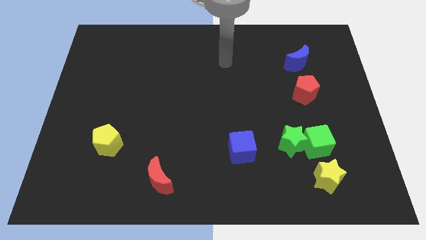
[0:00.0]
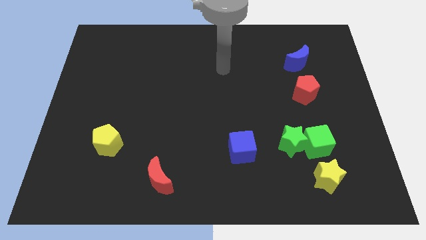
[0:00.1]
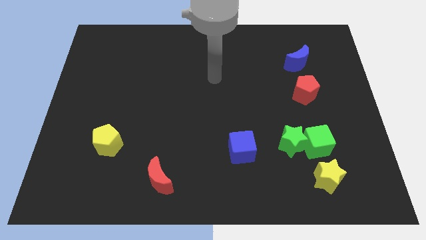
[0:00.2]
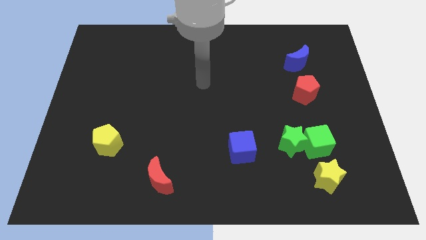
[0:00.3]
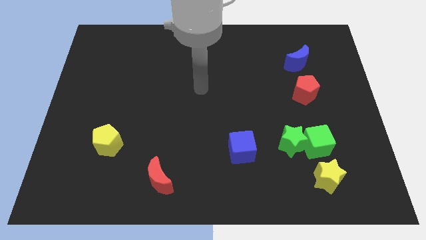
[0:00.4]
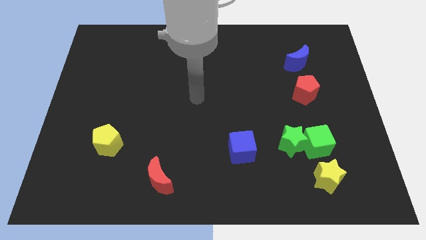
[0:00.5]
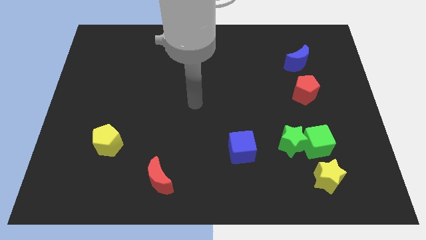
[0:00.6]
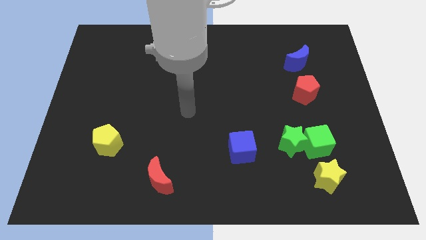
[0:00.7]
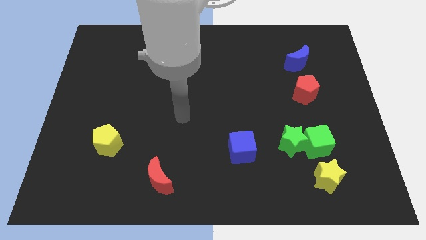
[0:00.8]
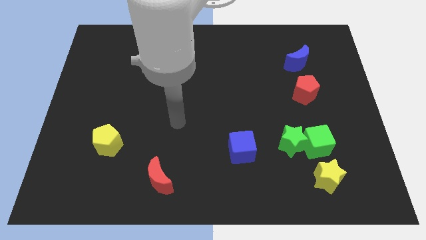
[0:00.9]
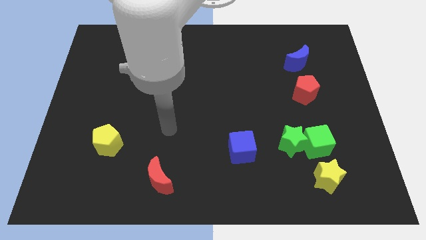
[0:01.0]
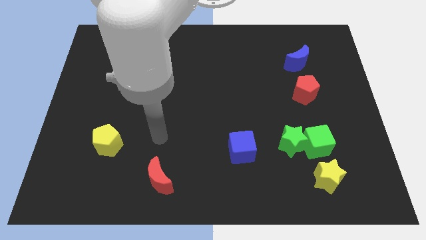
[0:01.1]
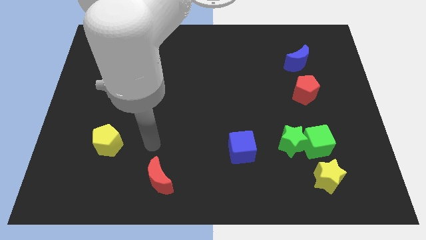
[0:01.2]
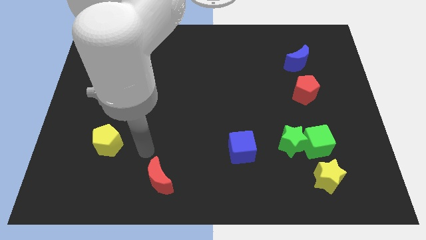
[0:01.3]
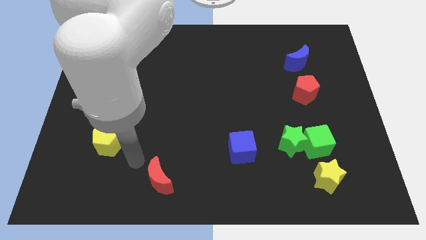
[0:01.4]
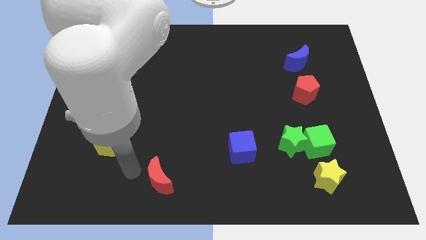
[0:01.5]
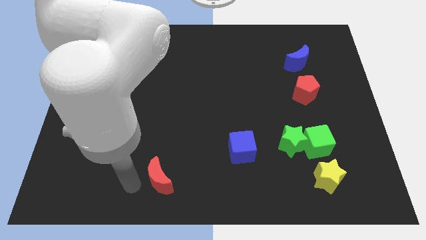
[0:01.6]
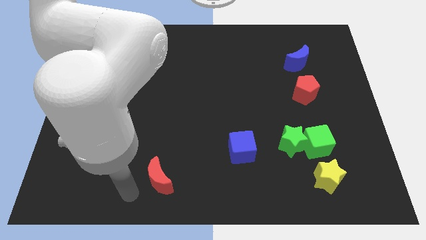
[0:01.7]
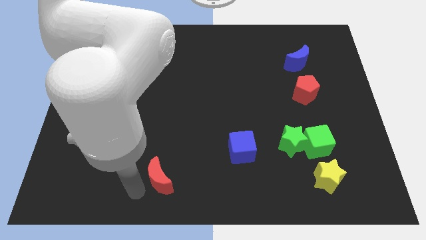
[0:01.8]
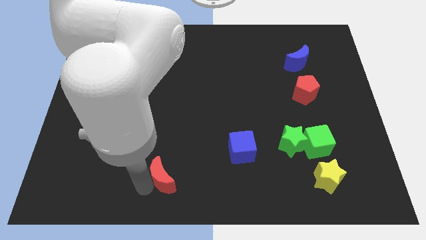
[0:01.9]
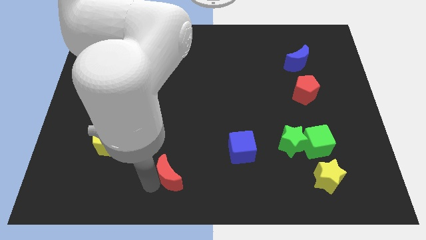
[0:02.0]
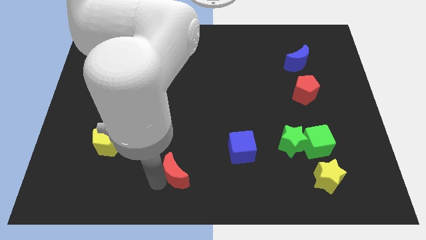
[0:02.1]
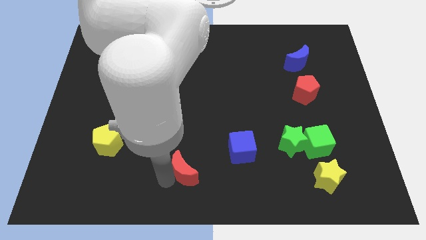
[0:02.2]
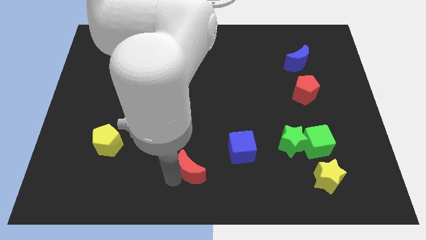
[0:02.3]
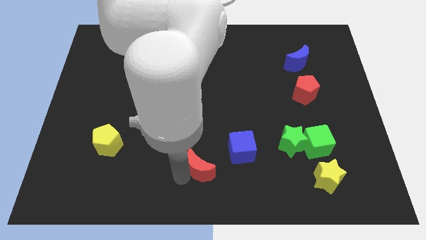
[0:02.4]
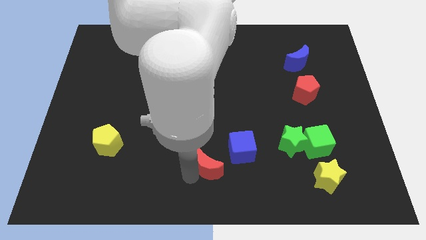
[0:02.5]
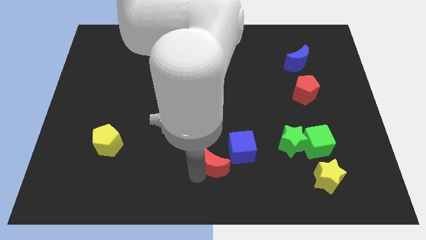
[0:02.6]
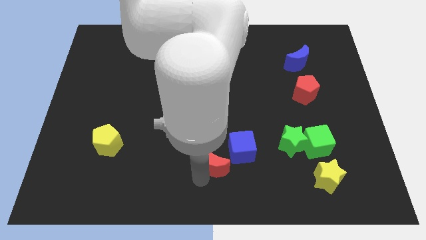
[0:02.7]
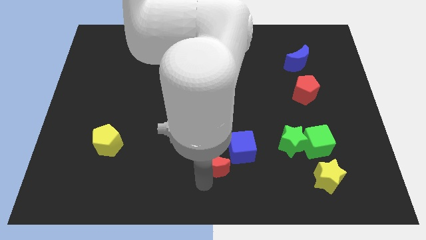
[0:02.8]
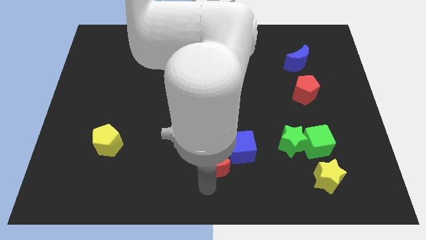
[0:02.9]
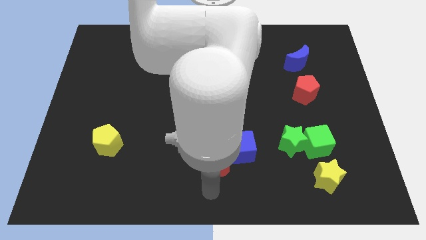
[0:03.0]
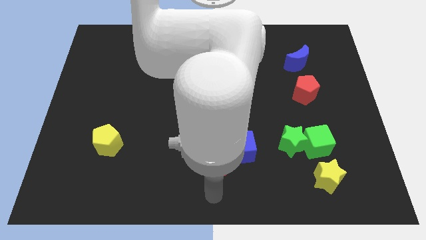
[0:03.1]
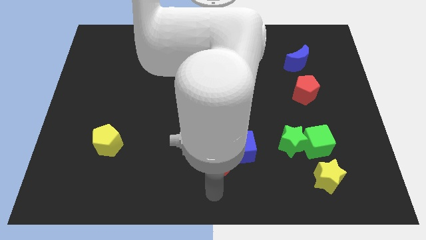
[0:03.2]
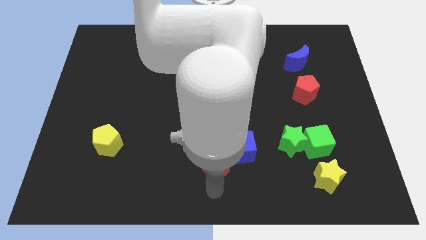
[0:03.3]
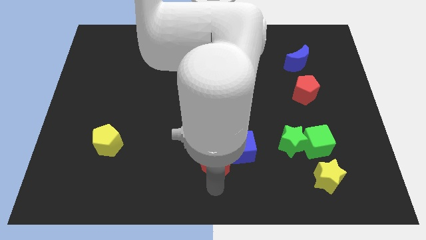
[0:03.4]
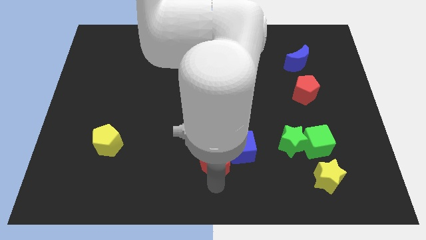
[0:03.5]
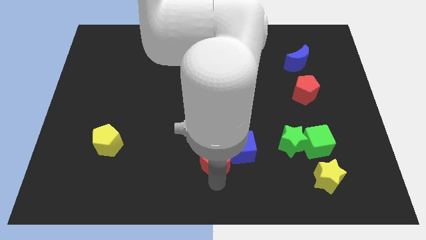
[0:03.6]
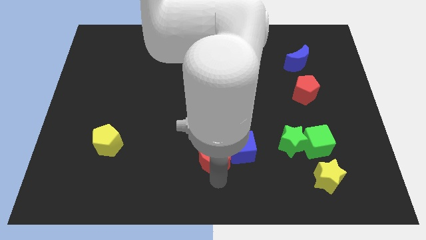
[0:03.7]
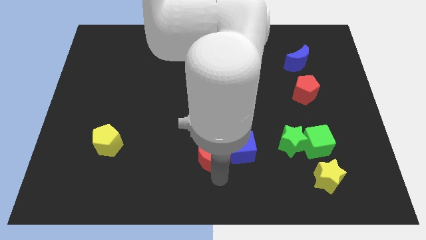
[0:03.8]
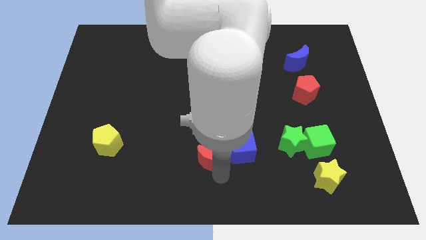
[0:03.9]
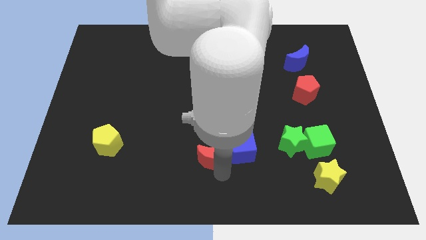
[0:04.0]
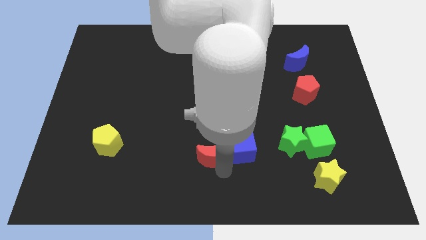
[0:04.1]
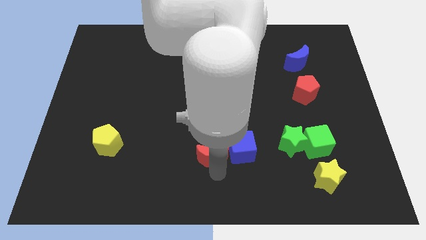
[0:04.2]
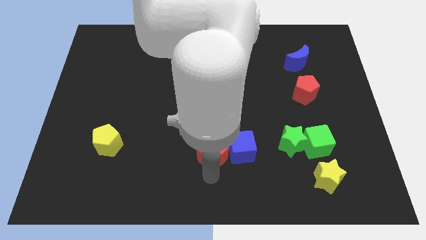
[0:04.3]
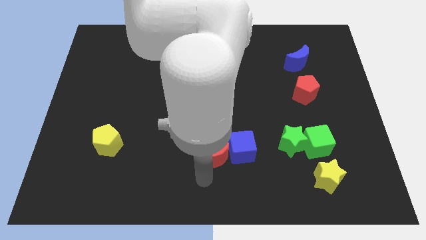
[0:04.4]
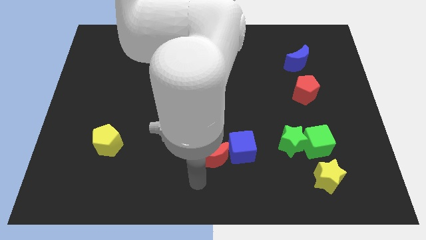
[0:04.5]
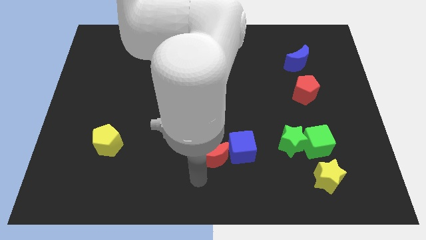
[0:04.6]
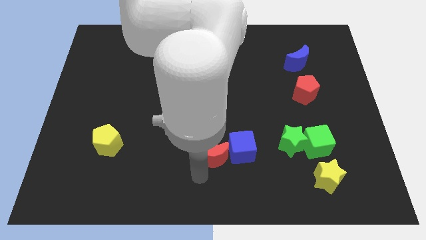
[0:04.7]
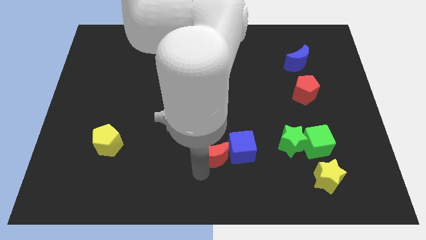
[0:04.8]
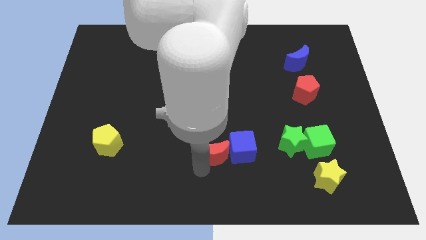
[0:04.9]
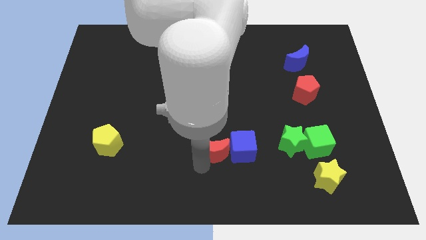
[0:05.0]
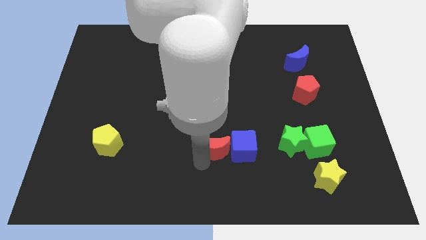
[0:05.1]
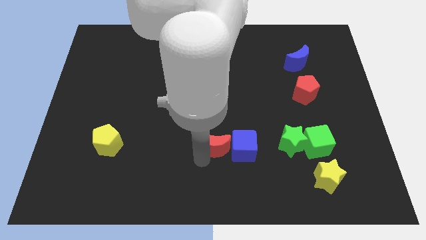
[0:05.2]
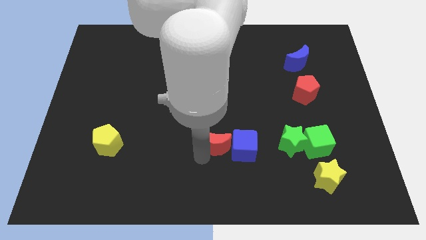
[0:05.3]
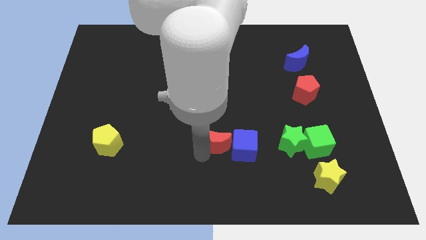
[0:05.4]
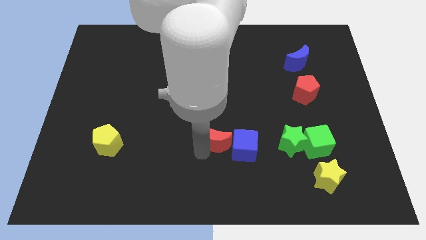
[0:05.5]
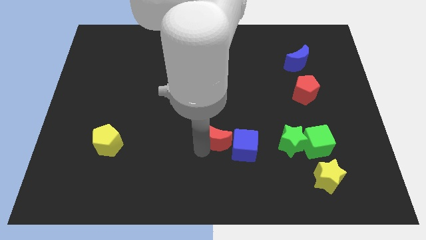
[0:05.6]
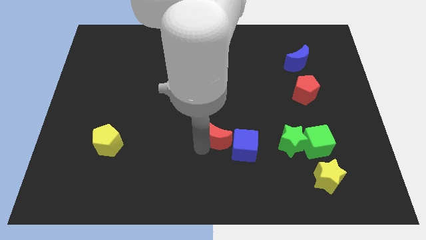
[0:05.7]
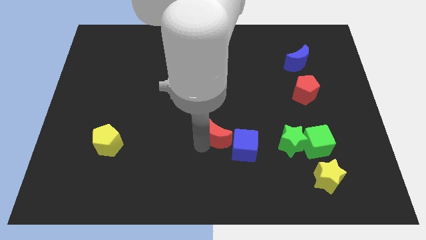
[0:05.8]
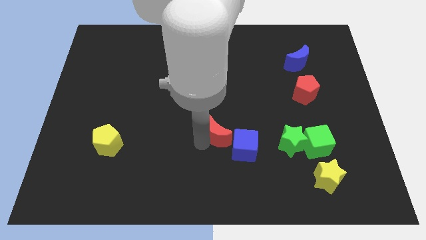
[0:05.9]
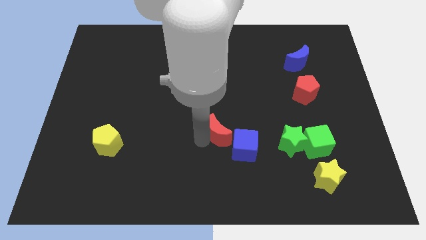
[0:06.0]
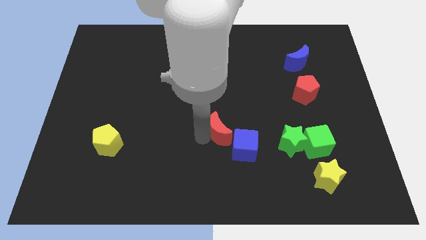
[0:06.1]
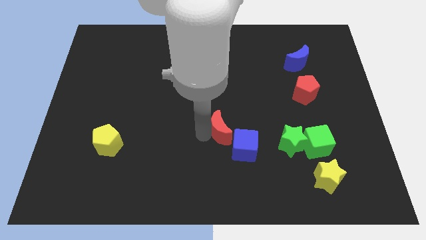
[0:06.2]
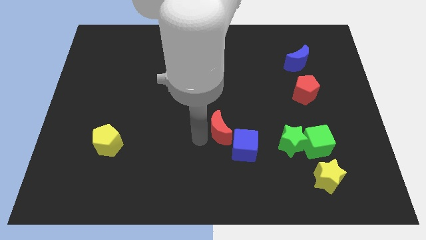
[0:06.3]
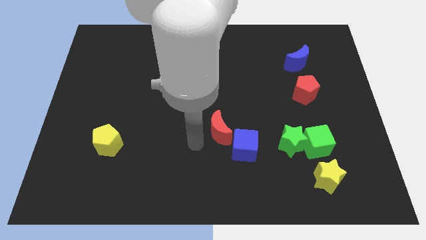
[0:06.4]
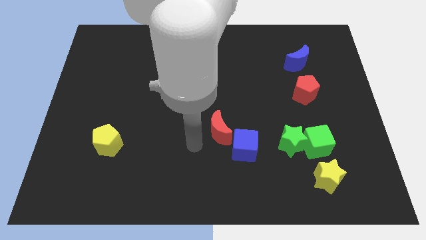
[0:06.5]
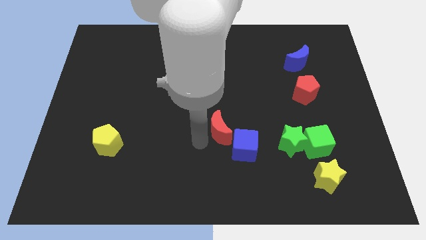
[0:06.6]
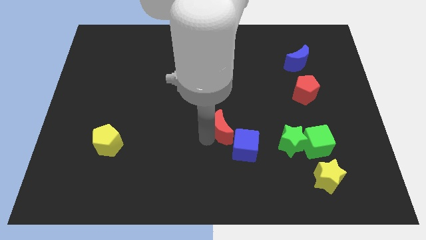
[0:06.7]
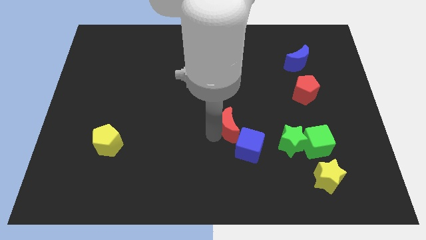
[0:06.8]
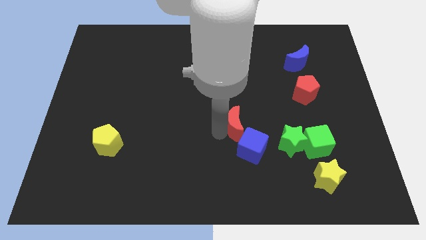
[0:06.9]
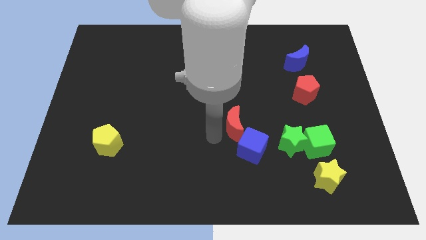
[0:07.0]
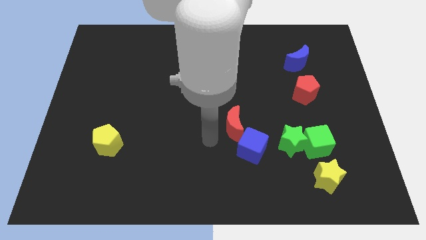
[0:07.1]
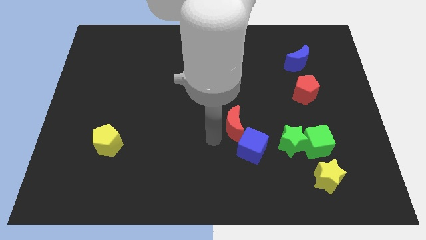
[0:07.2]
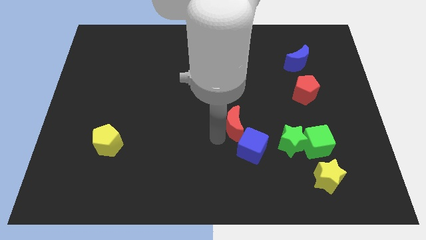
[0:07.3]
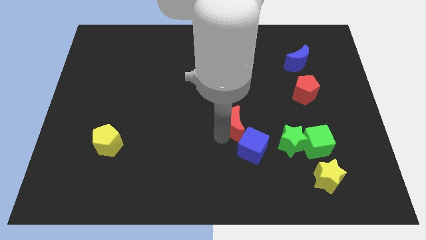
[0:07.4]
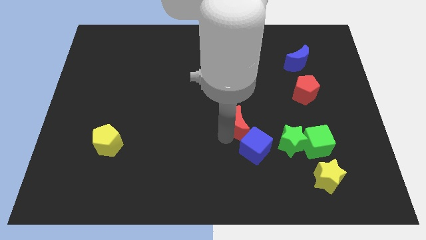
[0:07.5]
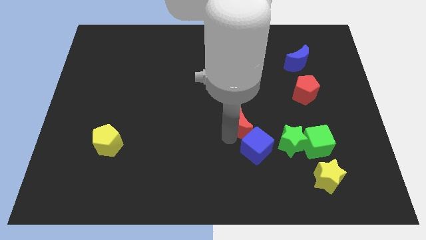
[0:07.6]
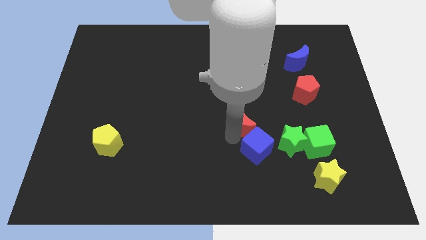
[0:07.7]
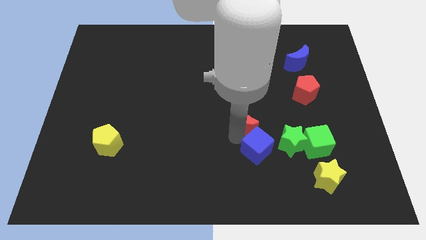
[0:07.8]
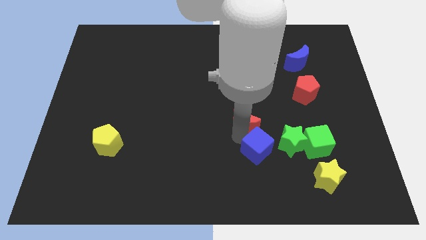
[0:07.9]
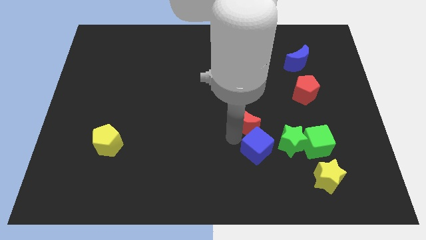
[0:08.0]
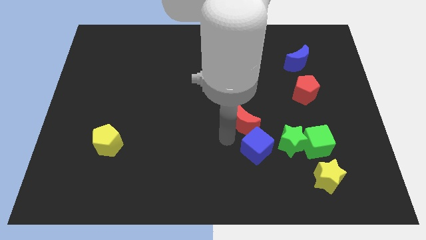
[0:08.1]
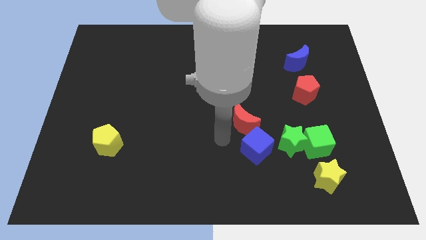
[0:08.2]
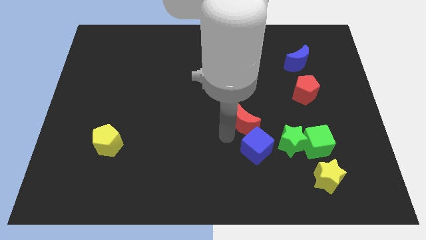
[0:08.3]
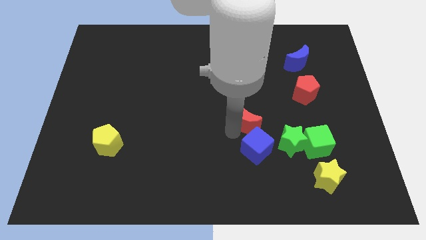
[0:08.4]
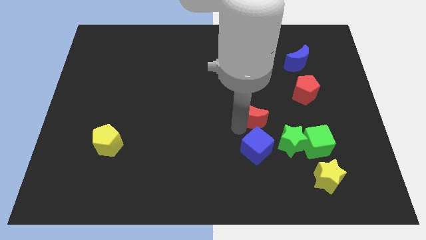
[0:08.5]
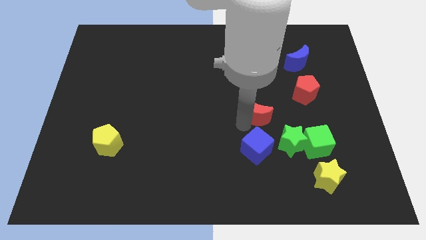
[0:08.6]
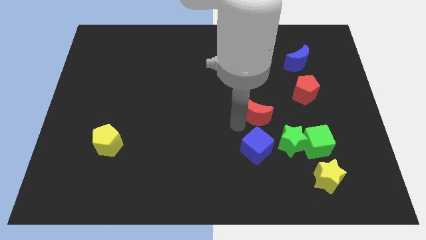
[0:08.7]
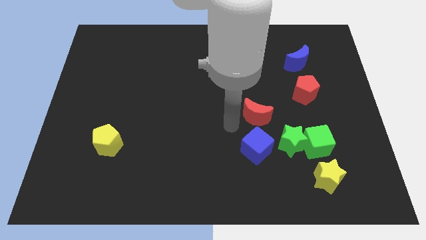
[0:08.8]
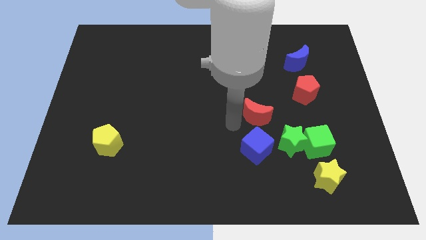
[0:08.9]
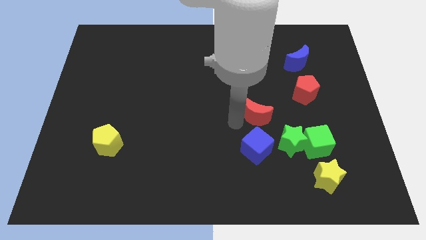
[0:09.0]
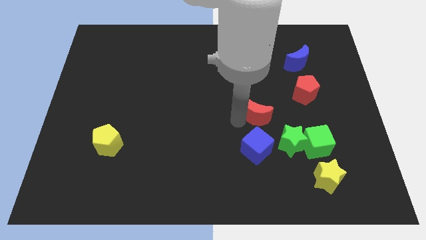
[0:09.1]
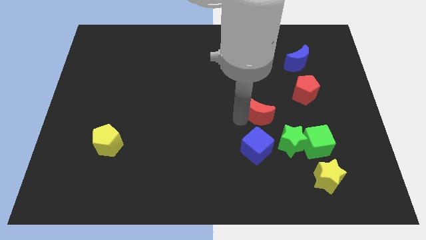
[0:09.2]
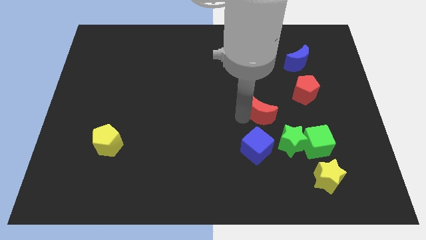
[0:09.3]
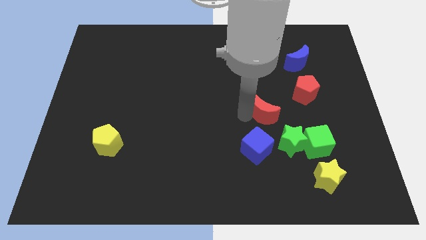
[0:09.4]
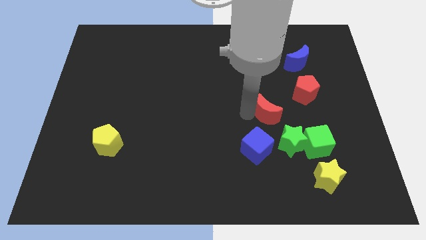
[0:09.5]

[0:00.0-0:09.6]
slide the red moon to the top side of the green star
